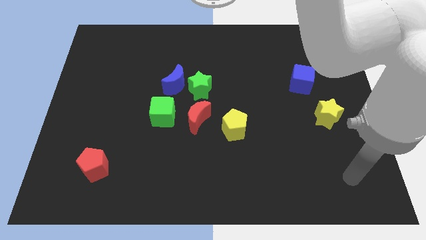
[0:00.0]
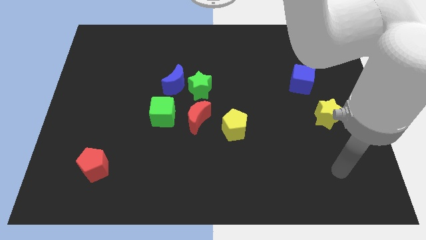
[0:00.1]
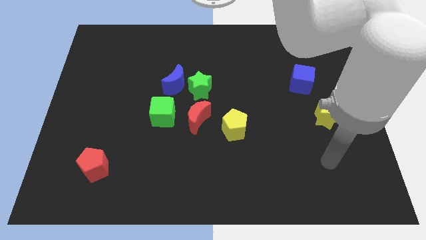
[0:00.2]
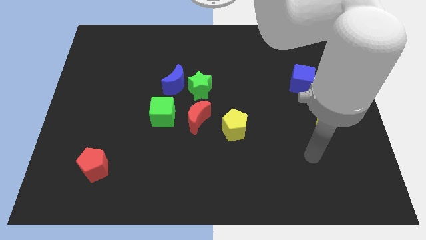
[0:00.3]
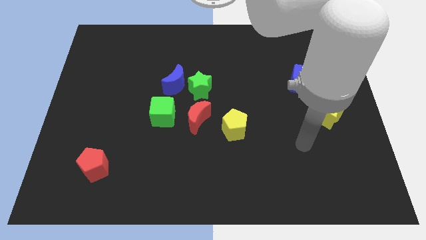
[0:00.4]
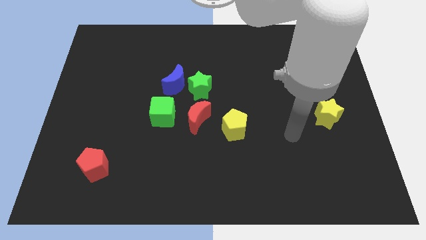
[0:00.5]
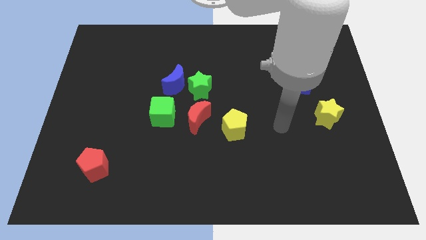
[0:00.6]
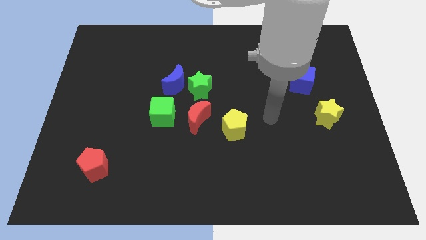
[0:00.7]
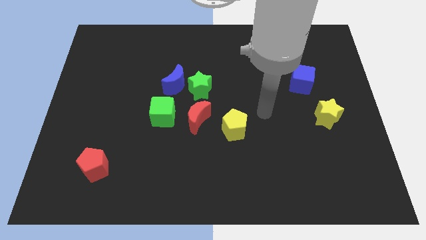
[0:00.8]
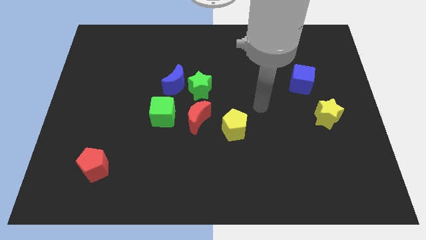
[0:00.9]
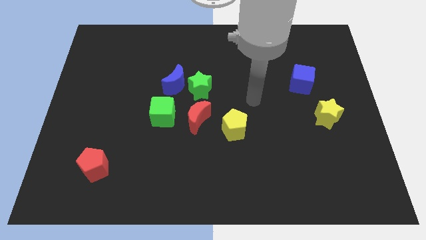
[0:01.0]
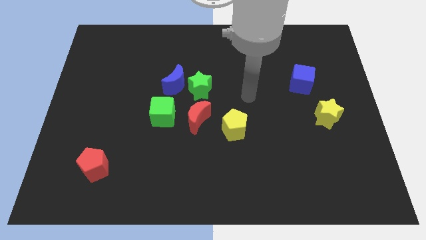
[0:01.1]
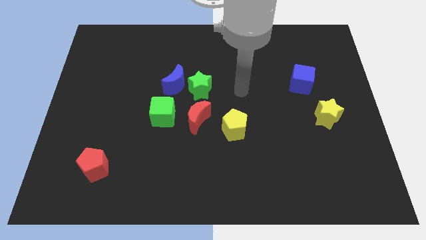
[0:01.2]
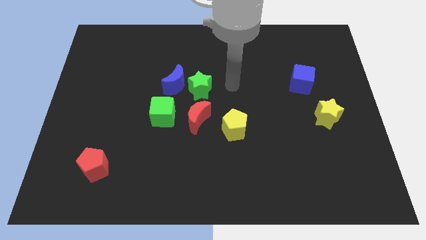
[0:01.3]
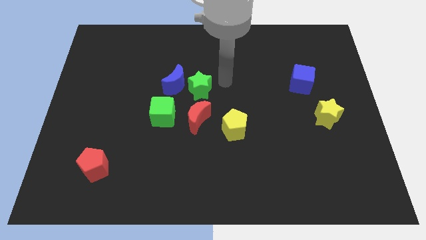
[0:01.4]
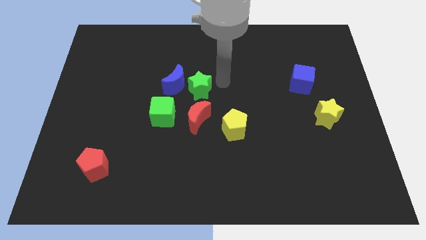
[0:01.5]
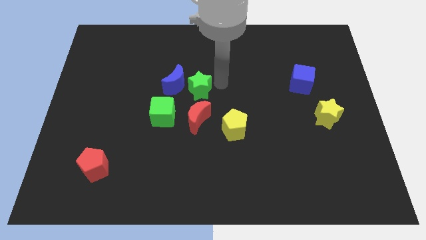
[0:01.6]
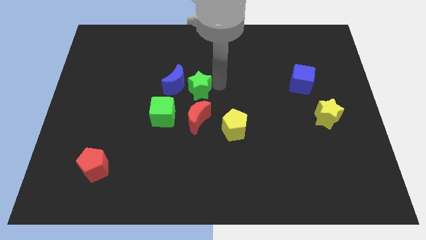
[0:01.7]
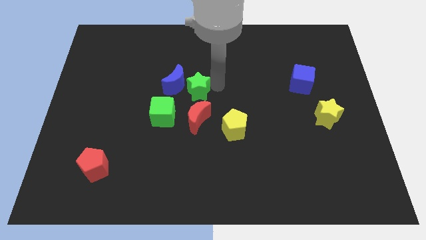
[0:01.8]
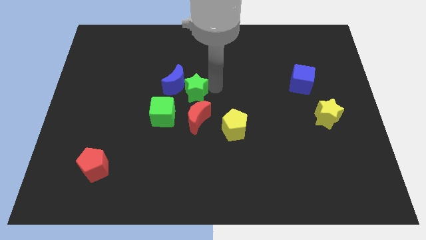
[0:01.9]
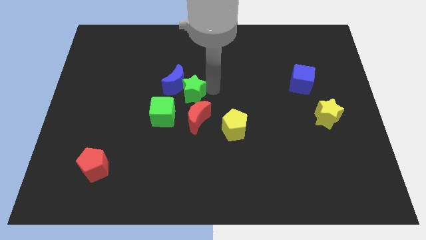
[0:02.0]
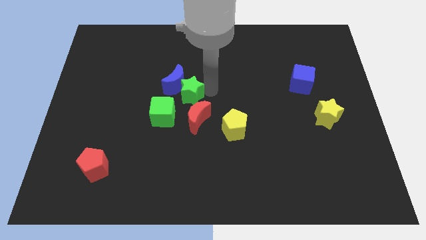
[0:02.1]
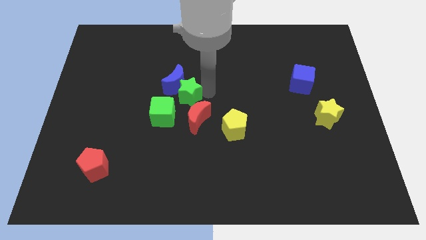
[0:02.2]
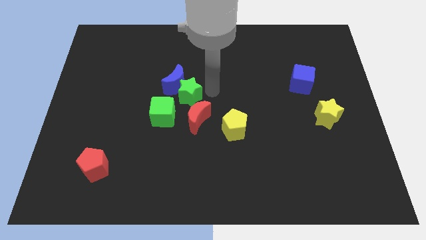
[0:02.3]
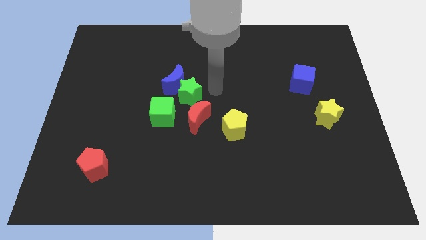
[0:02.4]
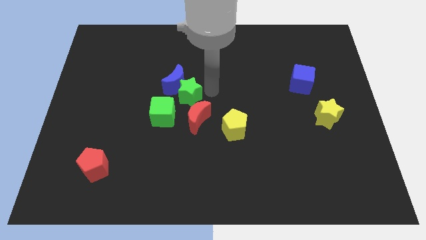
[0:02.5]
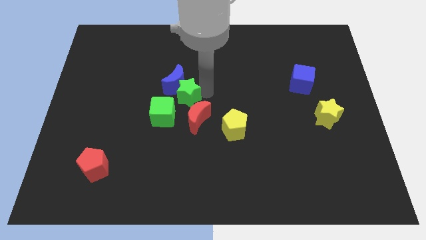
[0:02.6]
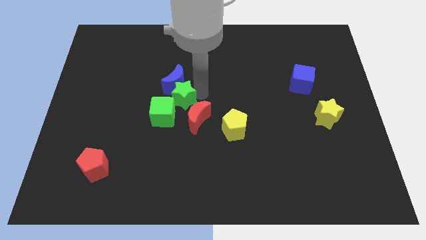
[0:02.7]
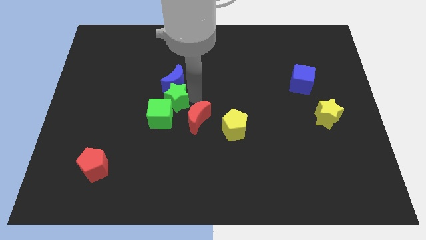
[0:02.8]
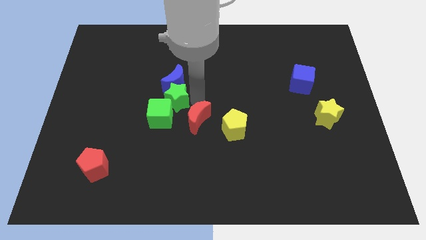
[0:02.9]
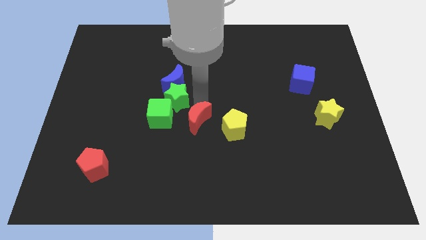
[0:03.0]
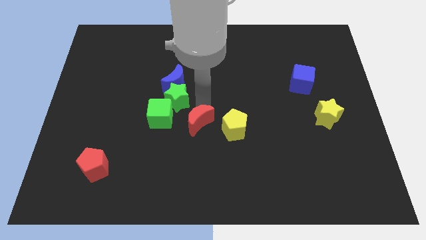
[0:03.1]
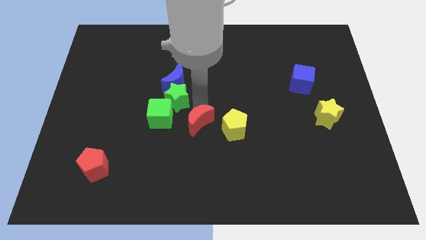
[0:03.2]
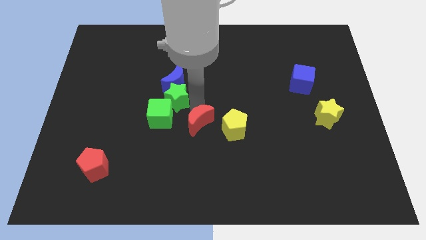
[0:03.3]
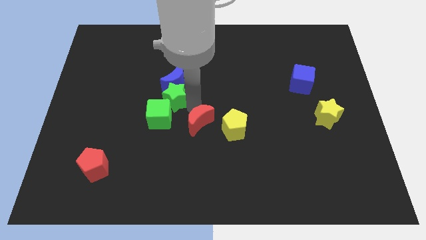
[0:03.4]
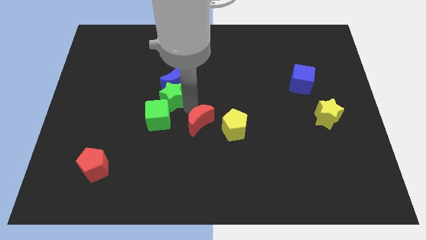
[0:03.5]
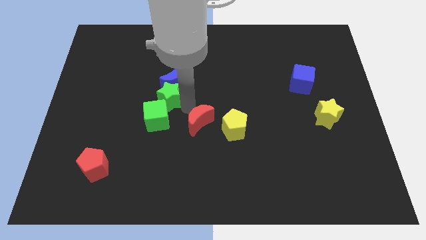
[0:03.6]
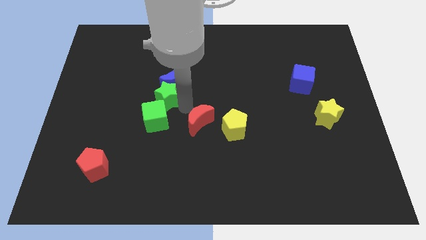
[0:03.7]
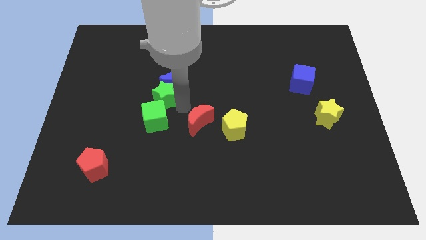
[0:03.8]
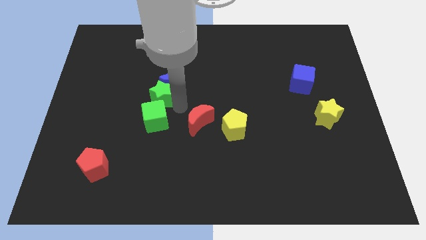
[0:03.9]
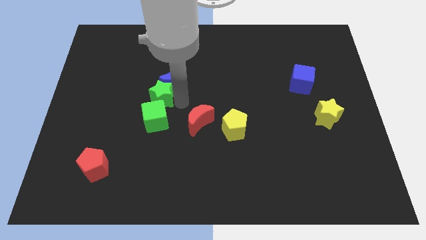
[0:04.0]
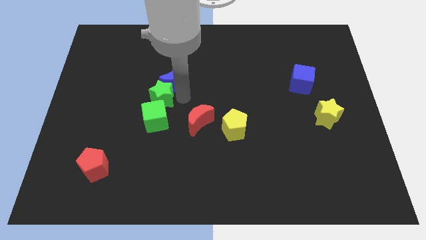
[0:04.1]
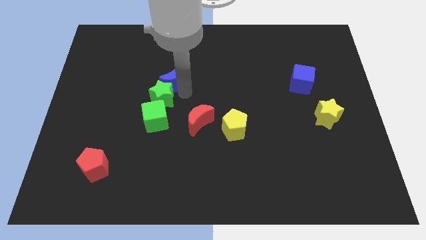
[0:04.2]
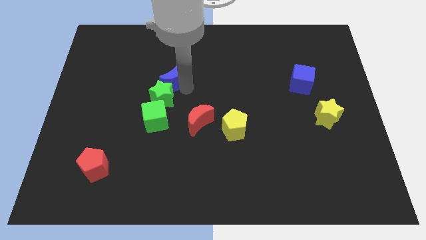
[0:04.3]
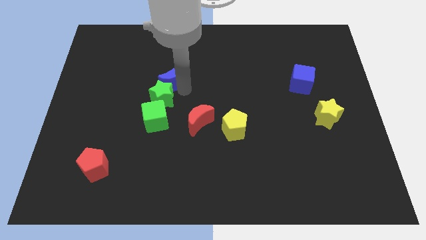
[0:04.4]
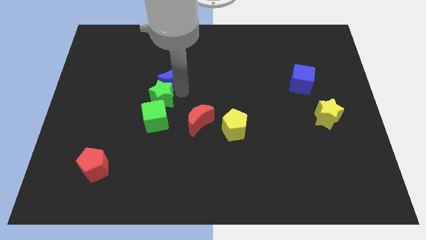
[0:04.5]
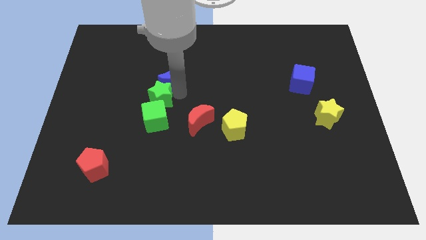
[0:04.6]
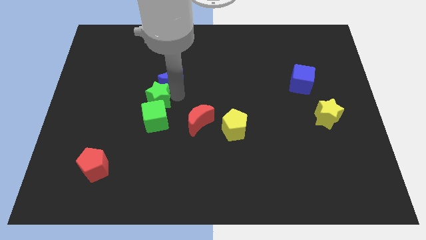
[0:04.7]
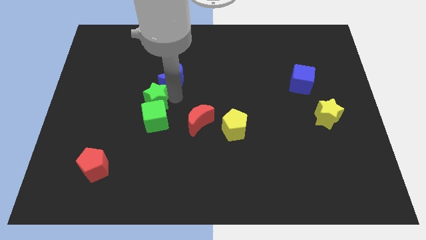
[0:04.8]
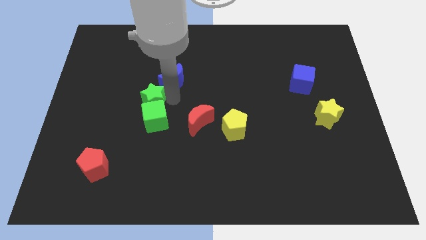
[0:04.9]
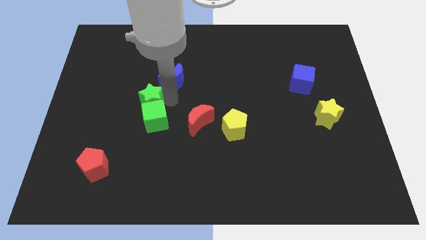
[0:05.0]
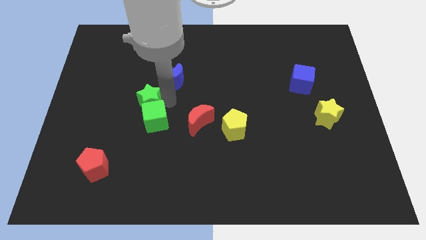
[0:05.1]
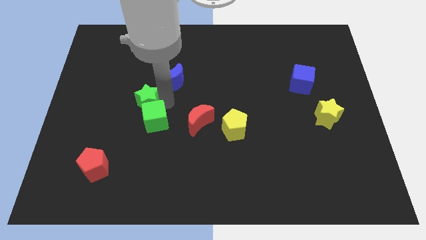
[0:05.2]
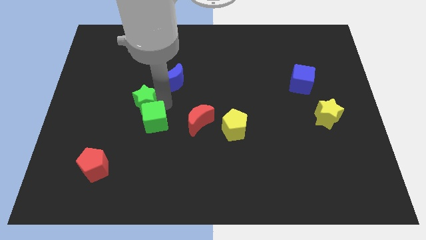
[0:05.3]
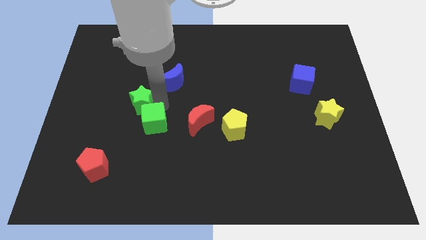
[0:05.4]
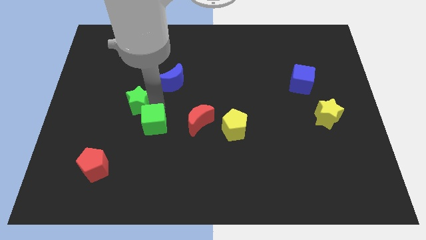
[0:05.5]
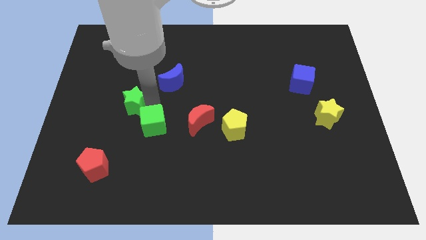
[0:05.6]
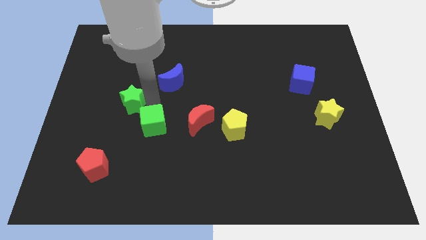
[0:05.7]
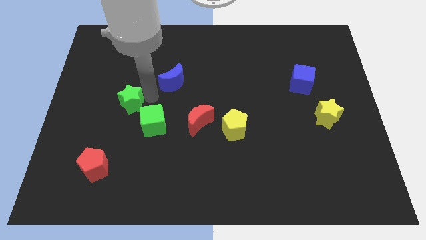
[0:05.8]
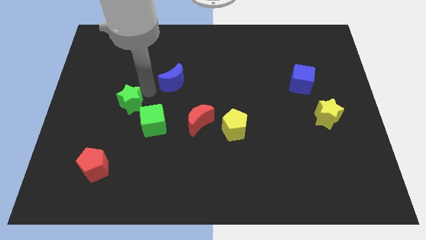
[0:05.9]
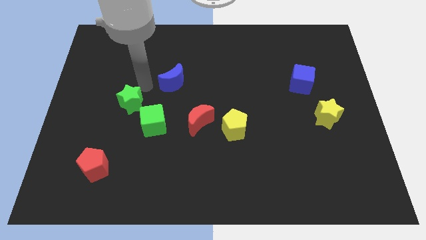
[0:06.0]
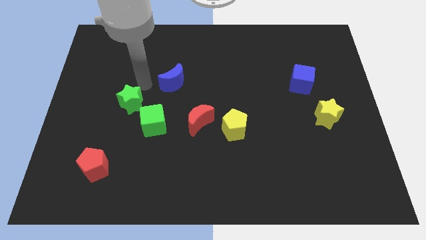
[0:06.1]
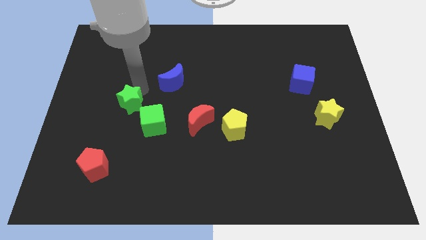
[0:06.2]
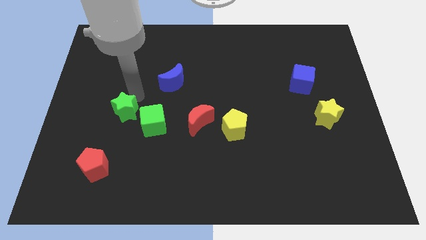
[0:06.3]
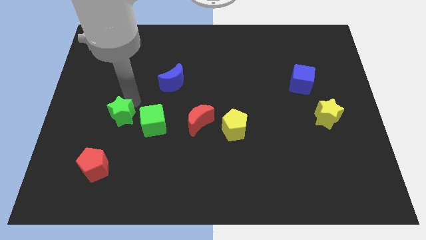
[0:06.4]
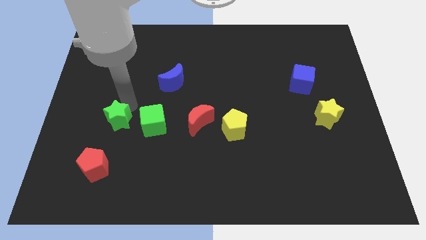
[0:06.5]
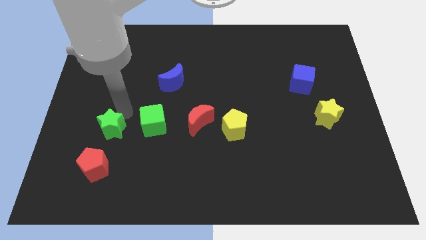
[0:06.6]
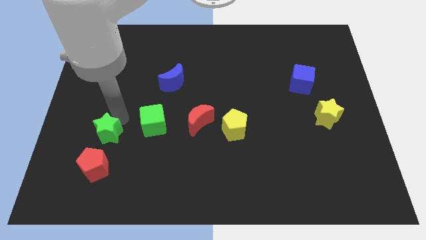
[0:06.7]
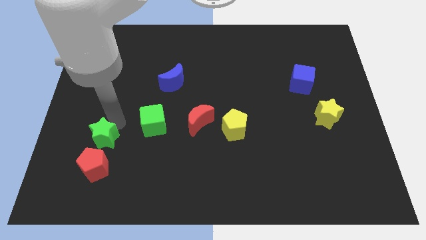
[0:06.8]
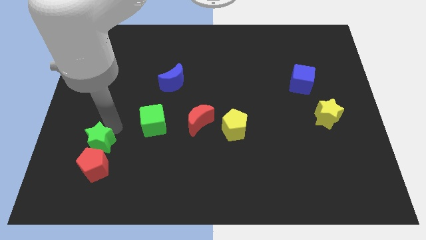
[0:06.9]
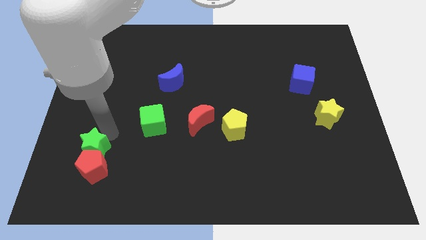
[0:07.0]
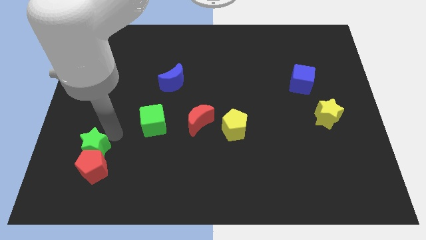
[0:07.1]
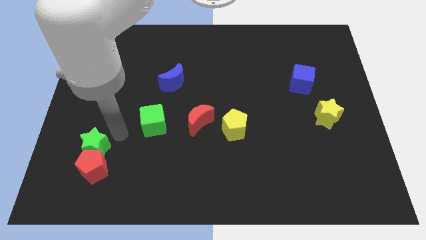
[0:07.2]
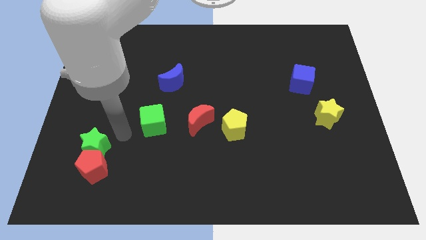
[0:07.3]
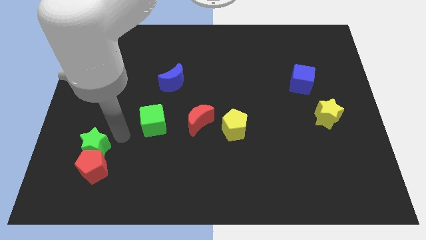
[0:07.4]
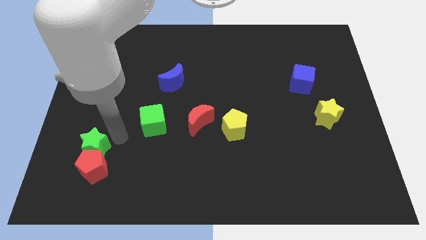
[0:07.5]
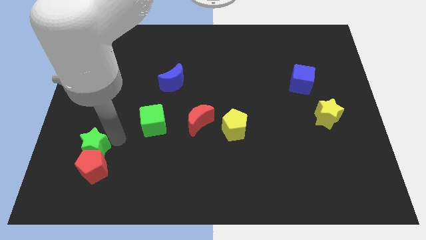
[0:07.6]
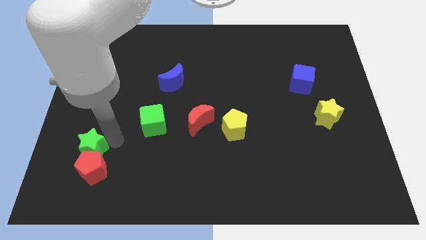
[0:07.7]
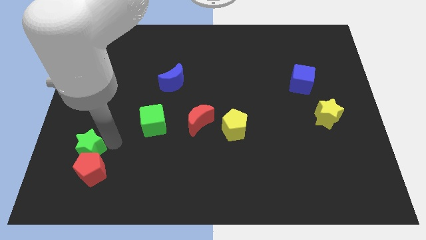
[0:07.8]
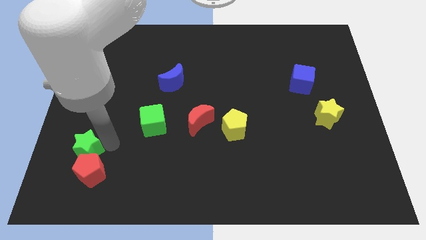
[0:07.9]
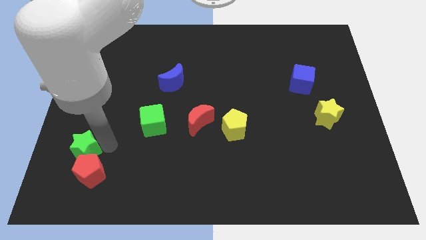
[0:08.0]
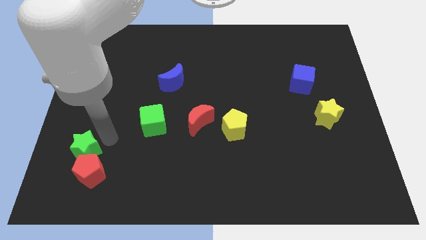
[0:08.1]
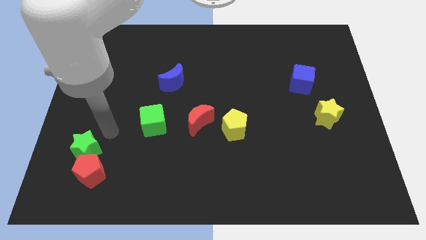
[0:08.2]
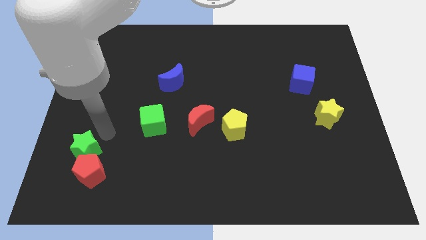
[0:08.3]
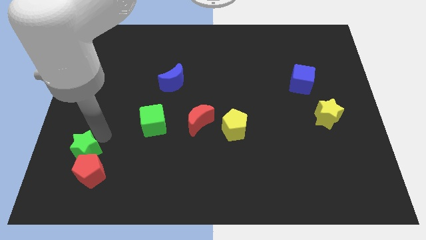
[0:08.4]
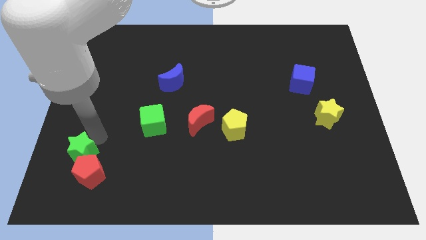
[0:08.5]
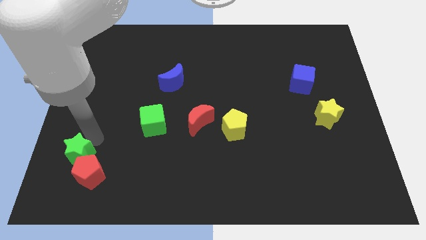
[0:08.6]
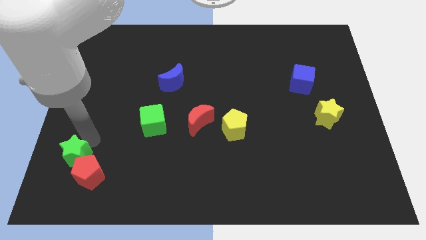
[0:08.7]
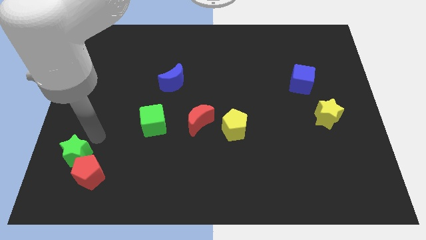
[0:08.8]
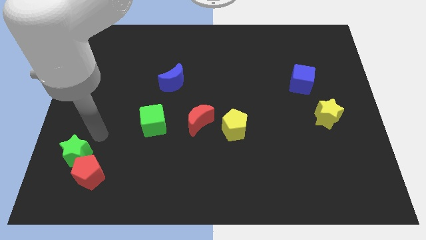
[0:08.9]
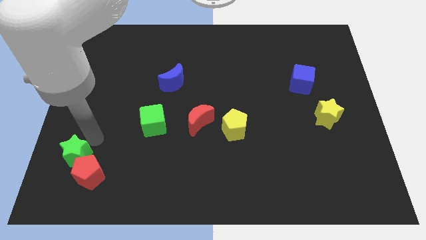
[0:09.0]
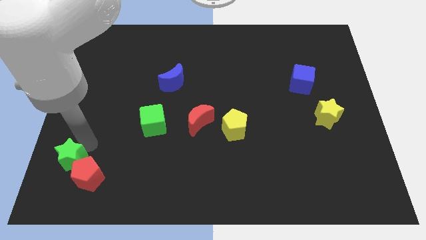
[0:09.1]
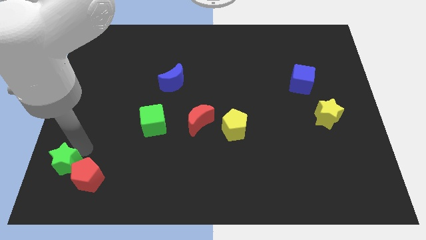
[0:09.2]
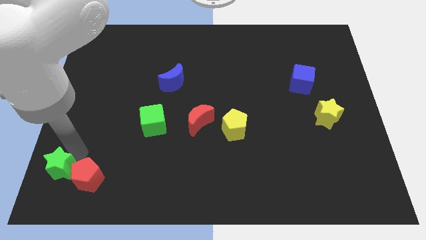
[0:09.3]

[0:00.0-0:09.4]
put the green star to the bottom left
